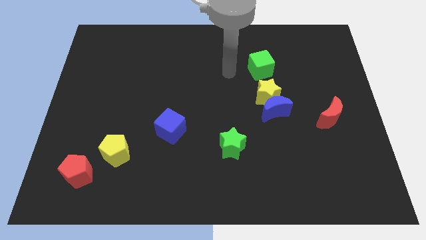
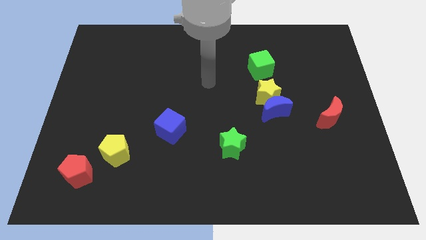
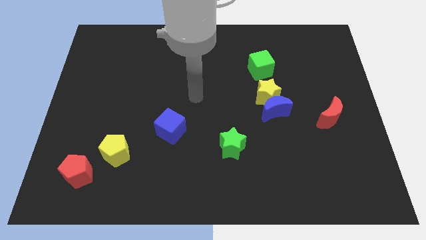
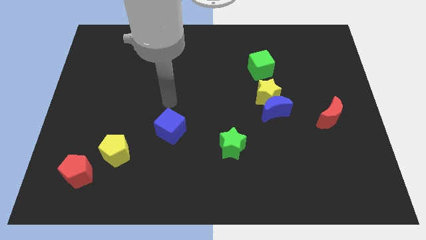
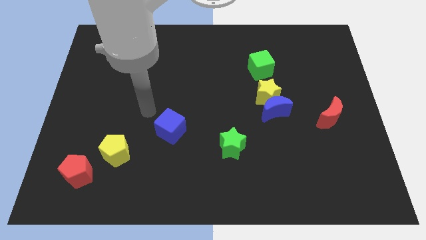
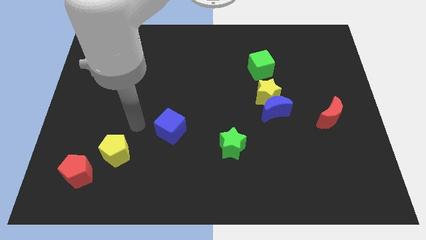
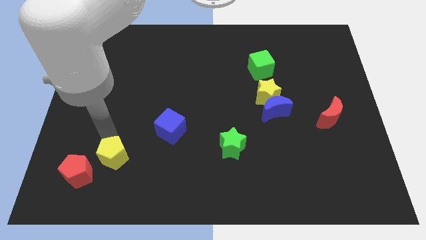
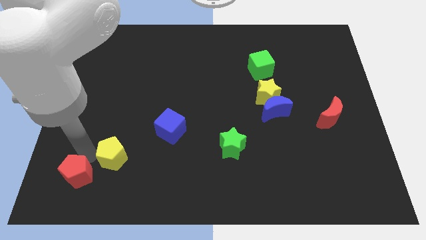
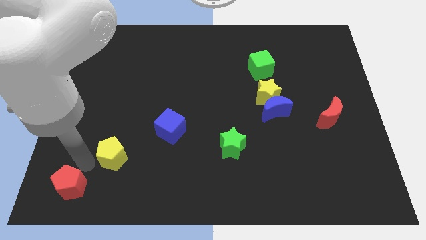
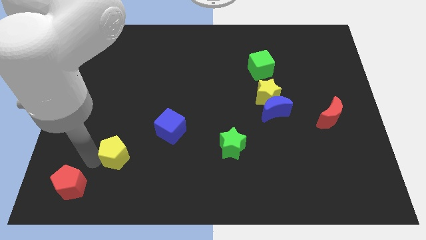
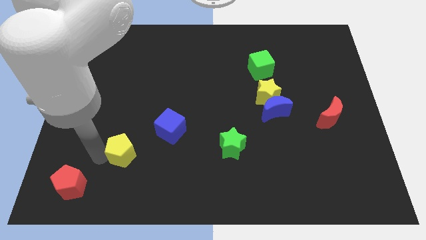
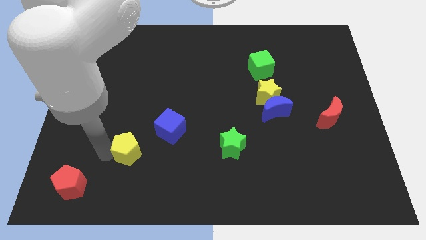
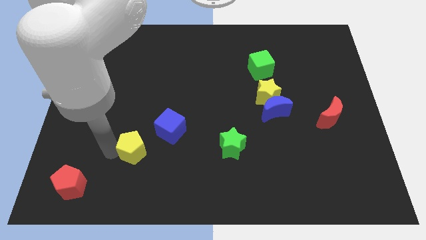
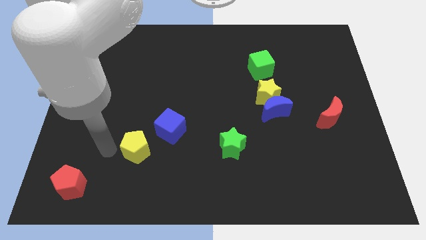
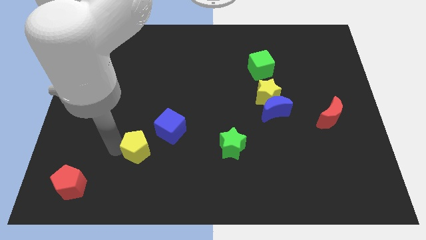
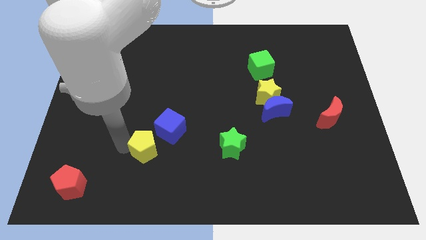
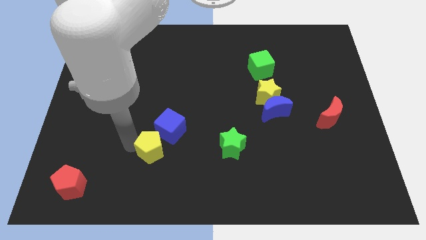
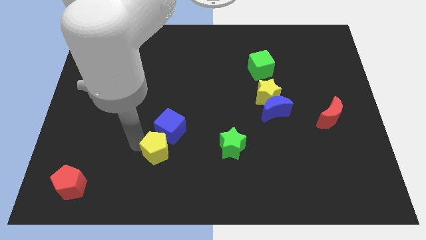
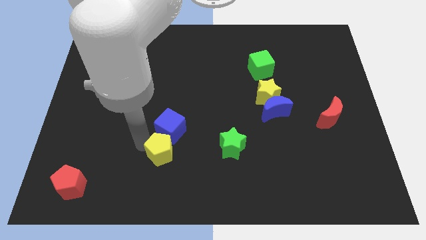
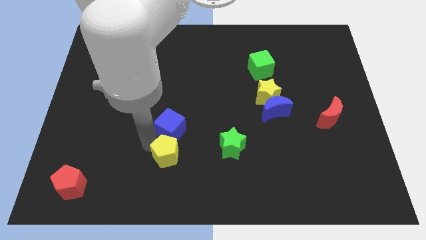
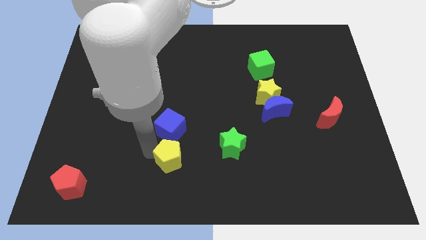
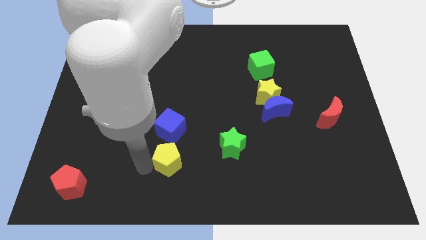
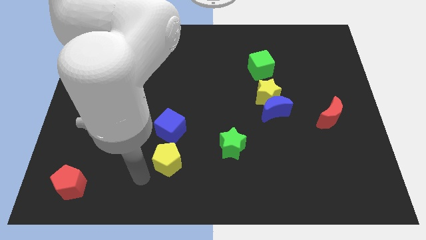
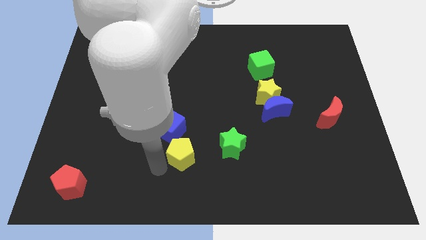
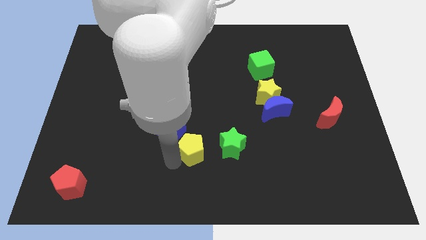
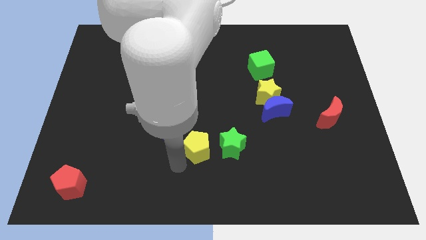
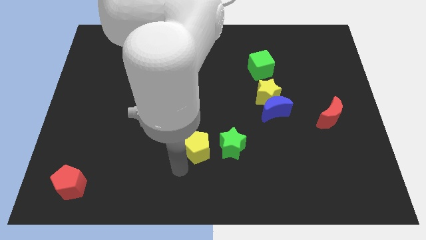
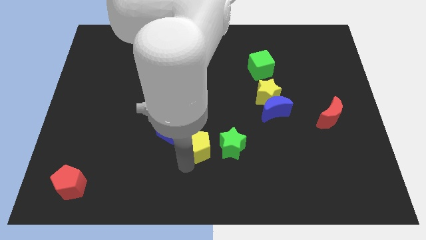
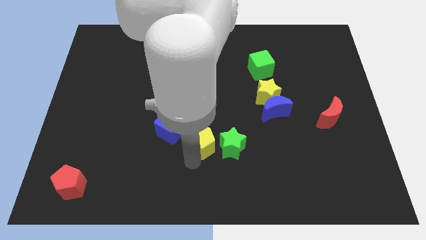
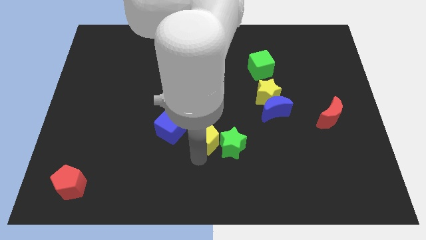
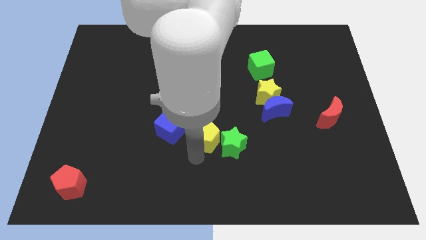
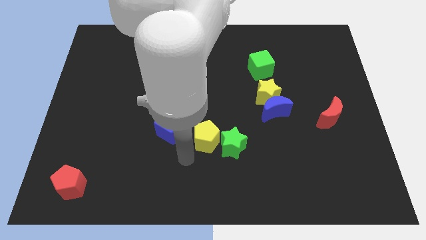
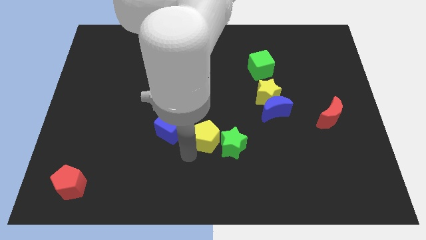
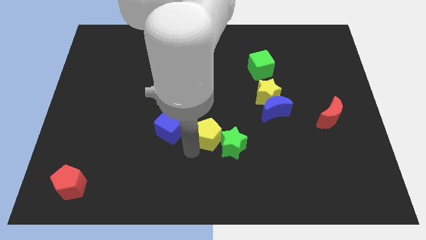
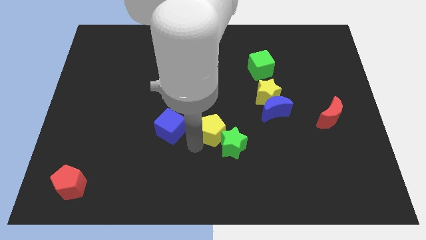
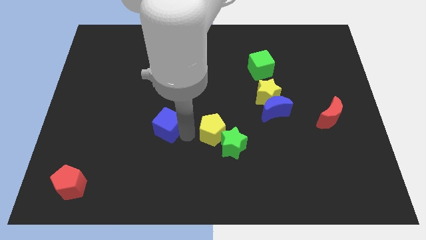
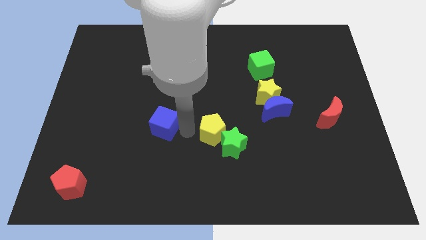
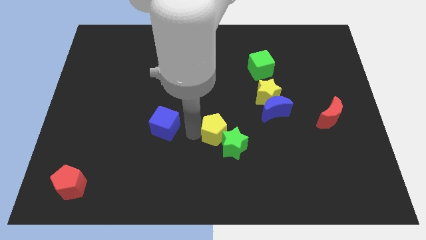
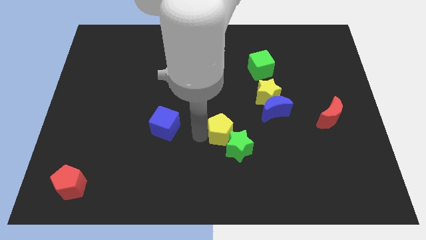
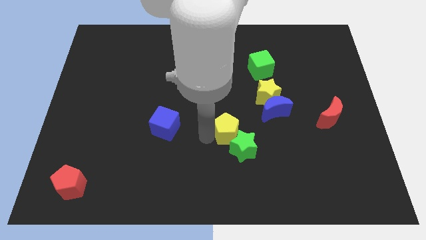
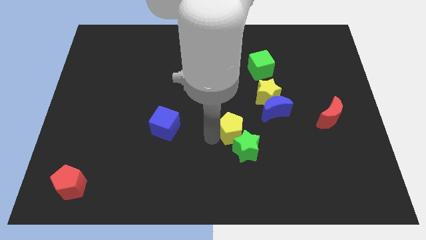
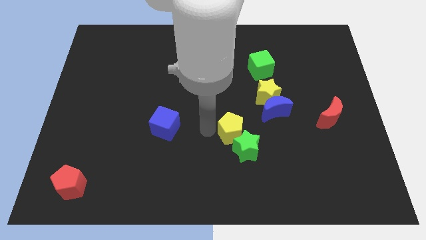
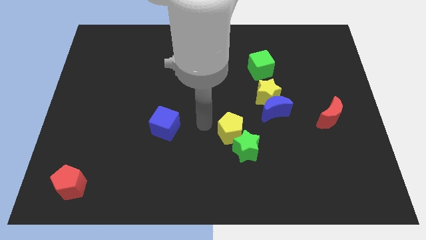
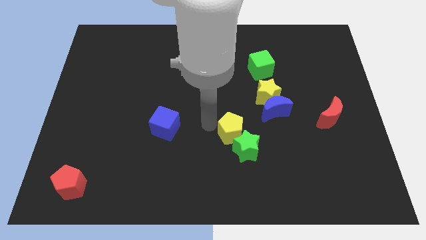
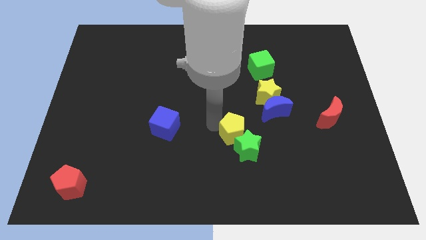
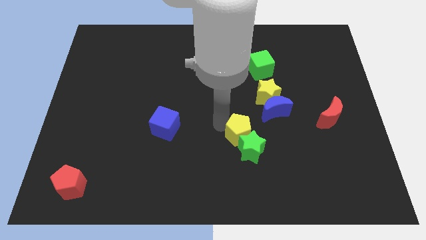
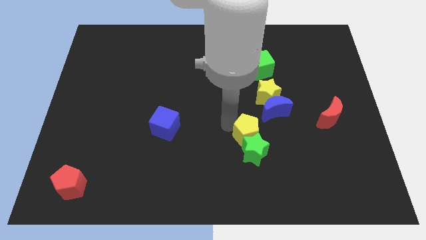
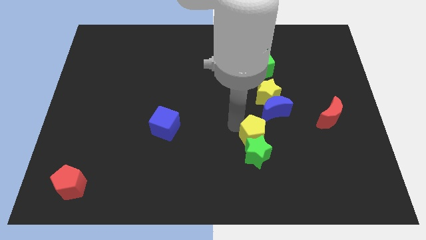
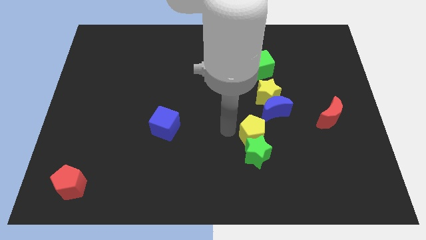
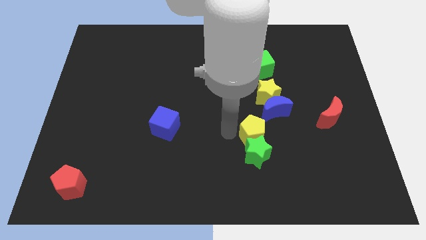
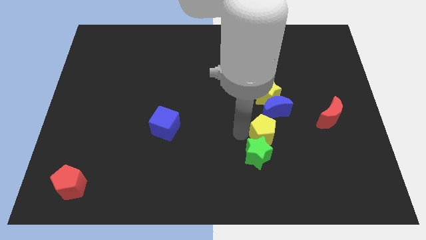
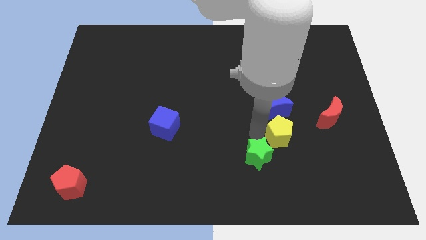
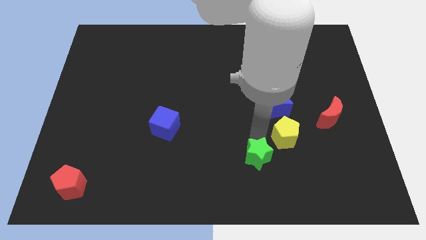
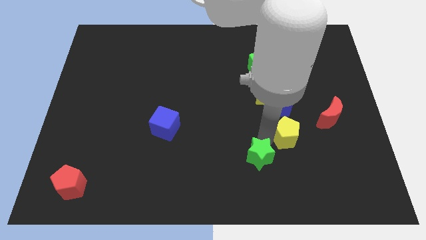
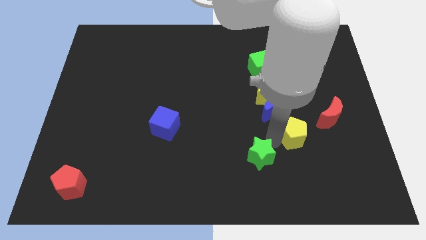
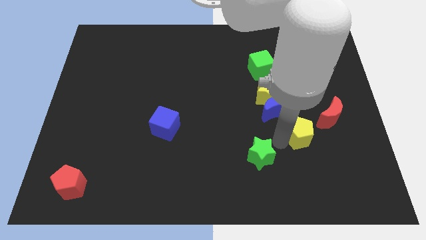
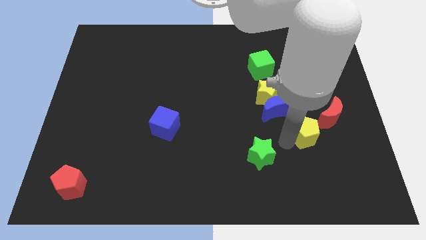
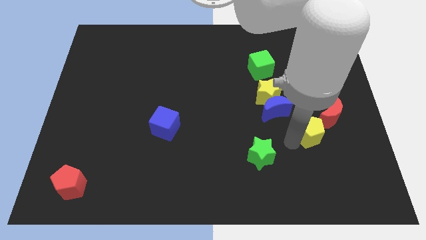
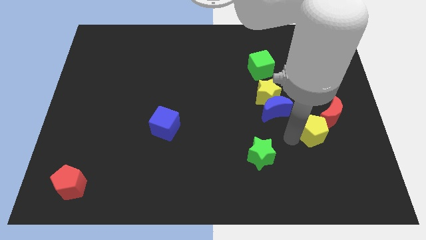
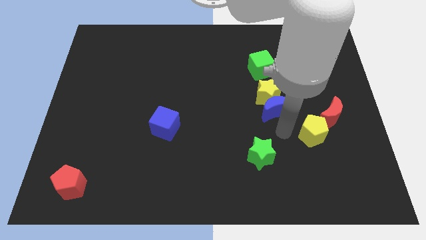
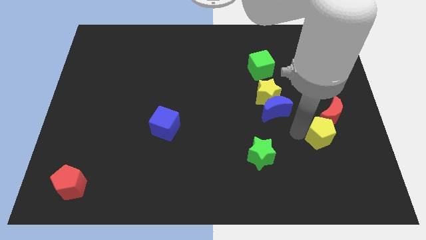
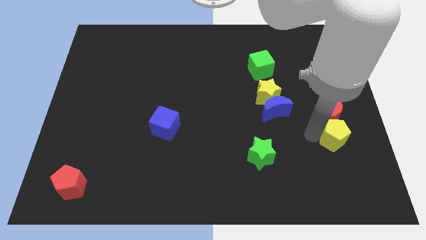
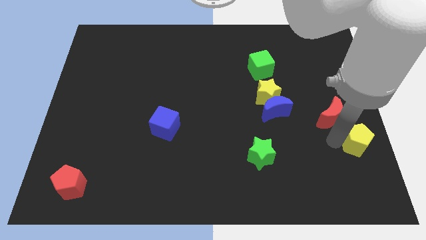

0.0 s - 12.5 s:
move the yellow pentagon to the right side of the board
